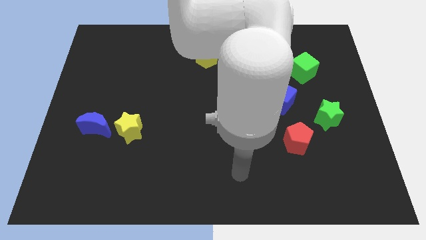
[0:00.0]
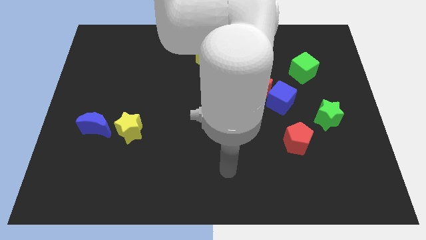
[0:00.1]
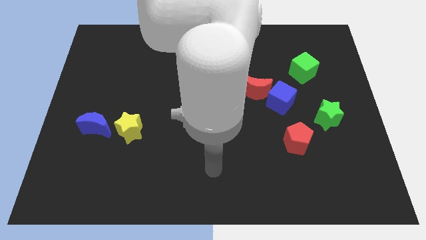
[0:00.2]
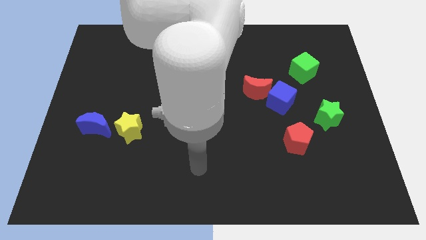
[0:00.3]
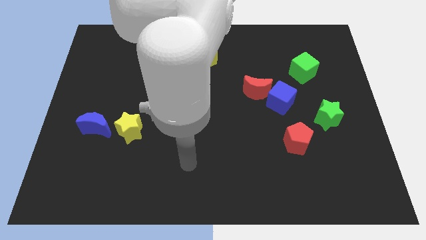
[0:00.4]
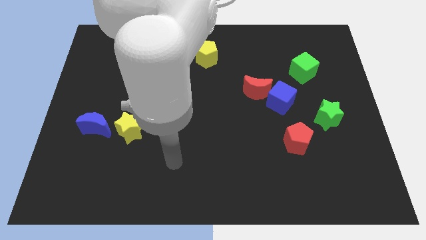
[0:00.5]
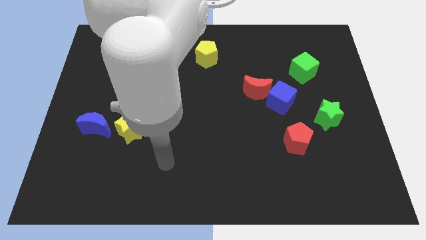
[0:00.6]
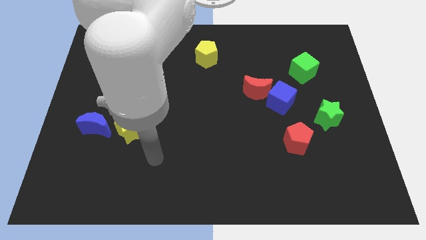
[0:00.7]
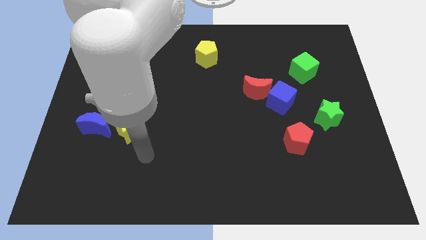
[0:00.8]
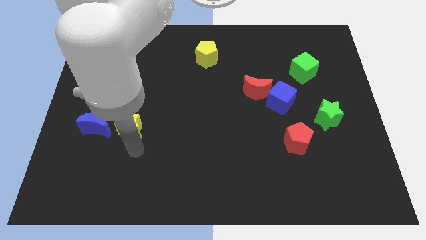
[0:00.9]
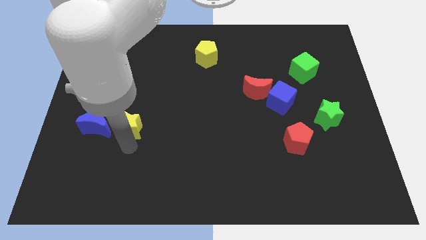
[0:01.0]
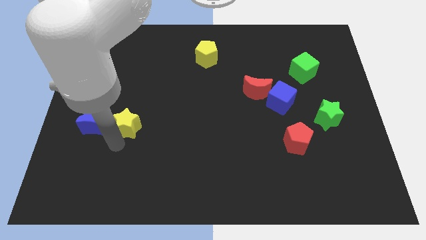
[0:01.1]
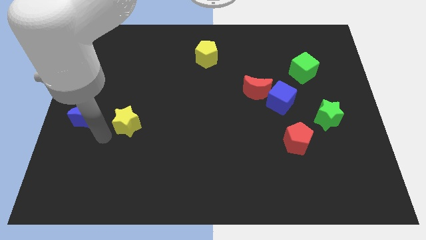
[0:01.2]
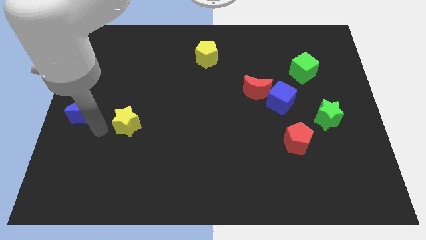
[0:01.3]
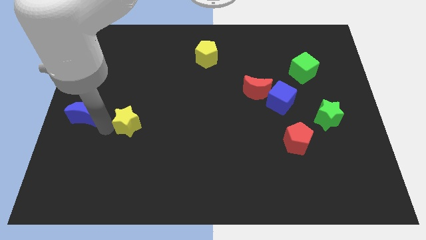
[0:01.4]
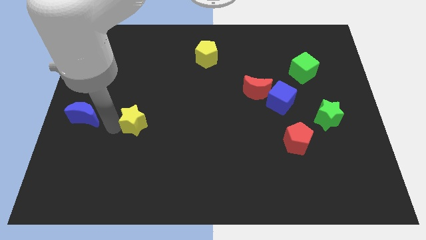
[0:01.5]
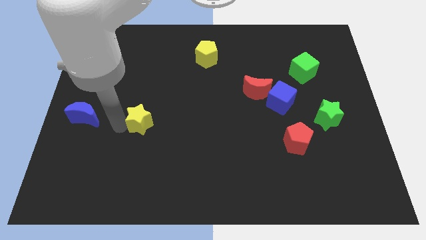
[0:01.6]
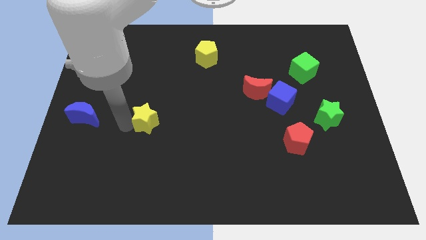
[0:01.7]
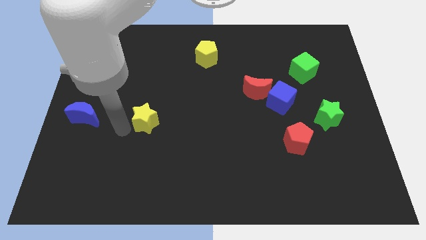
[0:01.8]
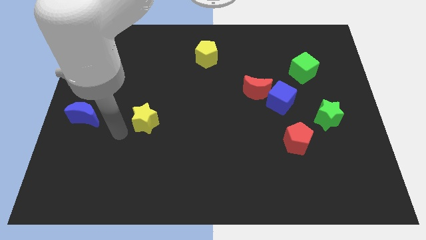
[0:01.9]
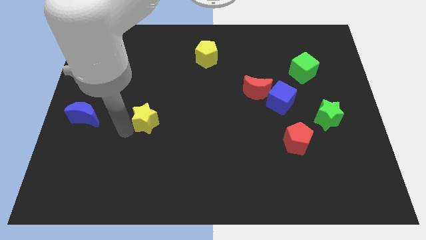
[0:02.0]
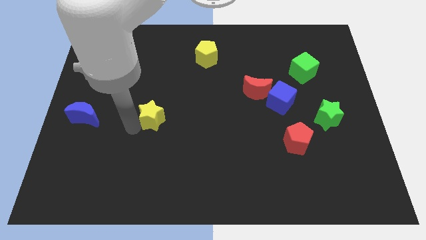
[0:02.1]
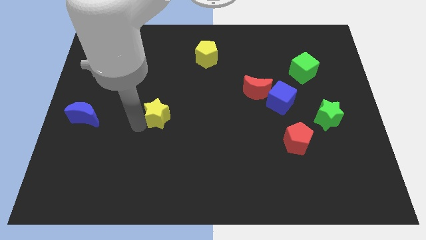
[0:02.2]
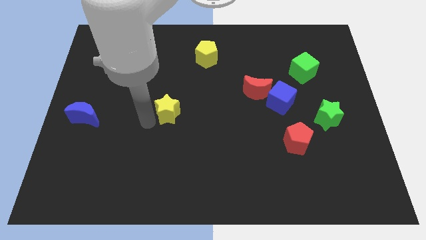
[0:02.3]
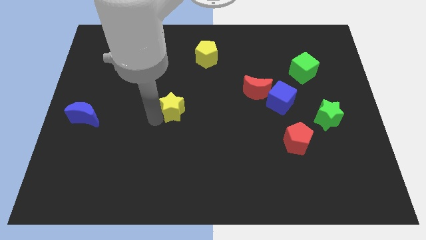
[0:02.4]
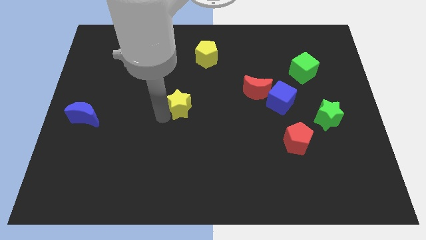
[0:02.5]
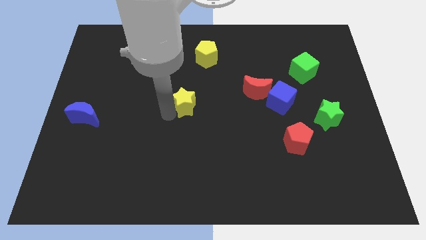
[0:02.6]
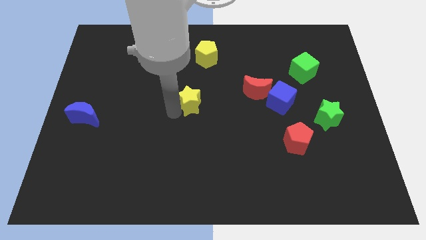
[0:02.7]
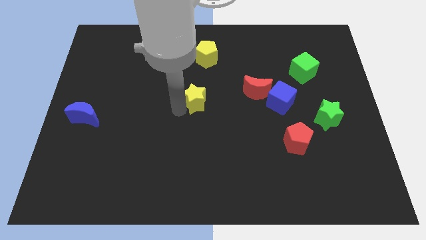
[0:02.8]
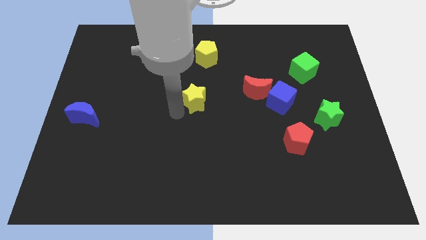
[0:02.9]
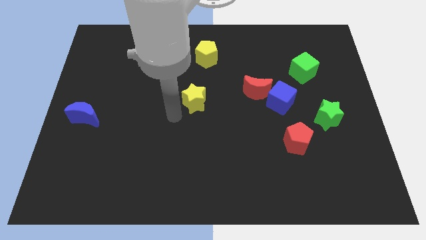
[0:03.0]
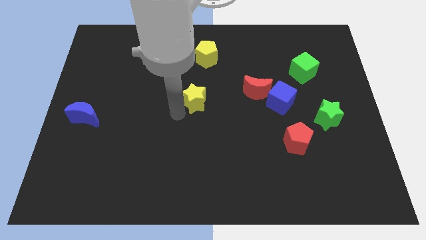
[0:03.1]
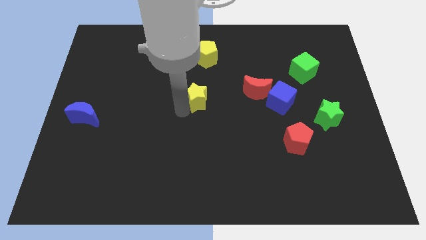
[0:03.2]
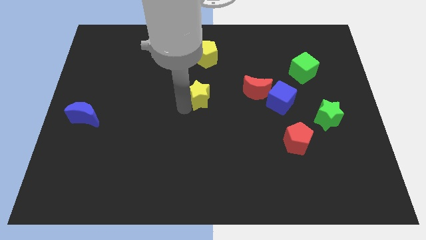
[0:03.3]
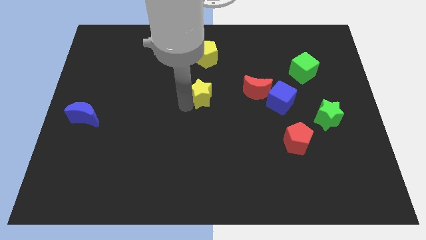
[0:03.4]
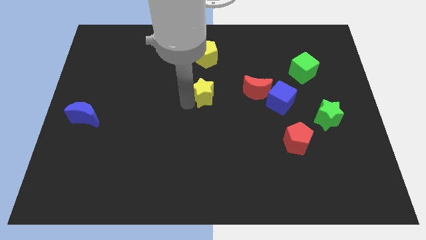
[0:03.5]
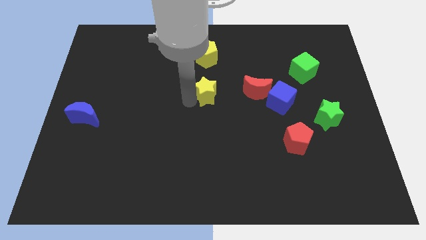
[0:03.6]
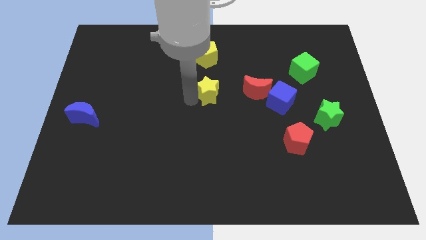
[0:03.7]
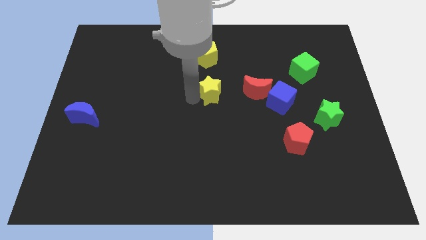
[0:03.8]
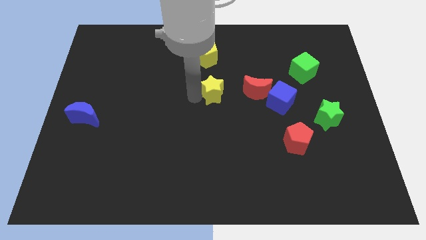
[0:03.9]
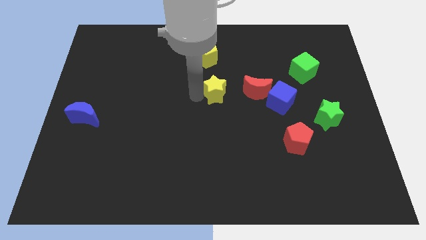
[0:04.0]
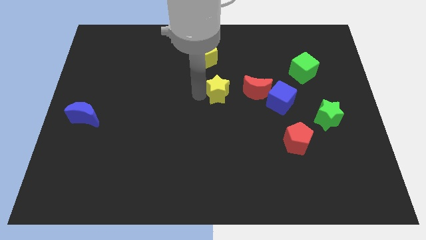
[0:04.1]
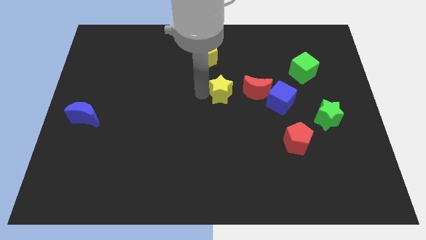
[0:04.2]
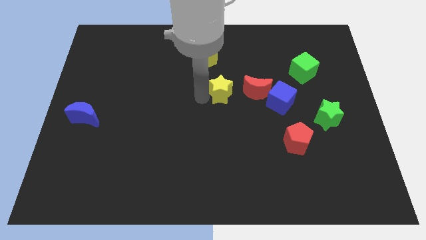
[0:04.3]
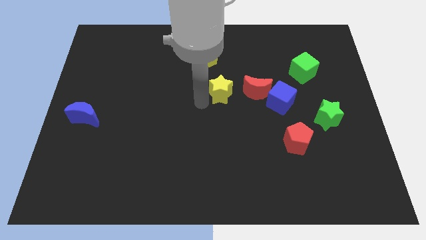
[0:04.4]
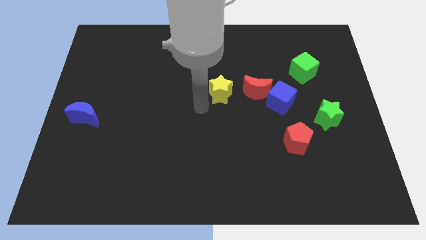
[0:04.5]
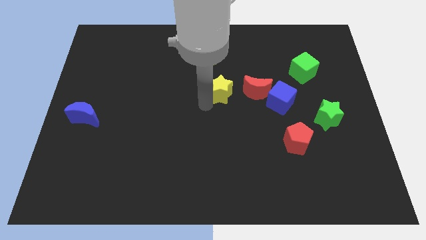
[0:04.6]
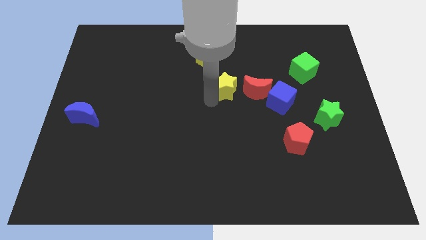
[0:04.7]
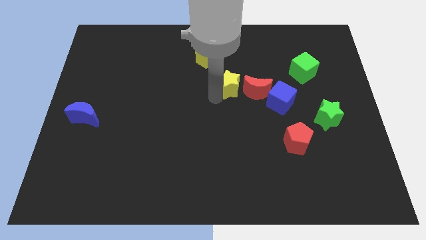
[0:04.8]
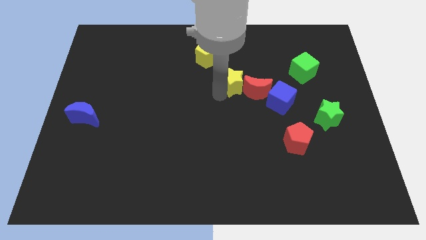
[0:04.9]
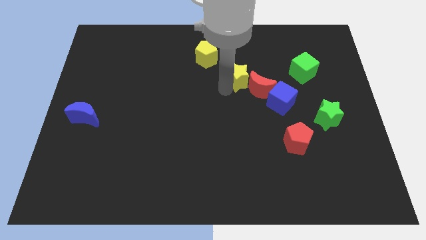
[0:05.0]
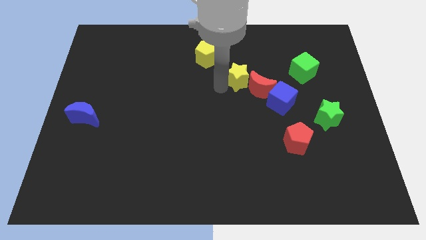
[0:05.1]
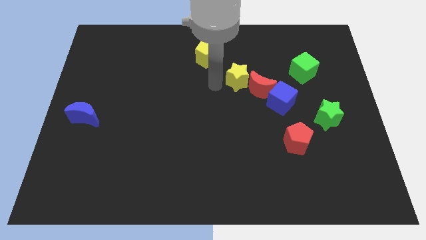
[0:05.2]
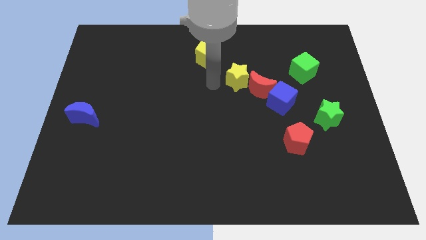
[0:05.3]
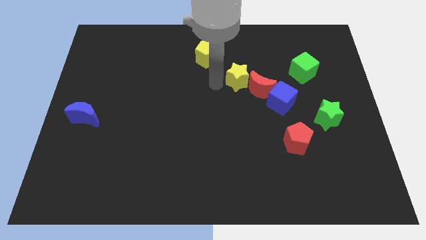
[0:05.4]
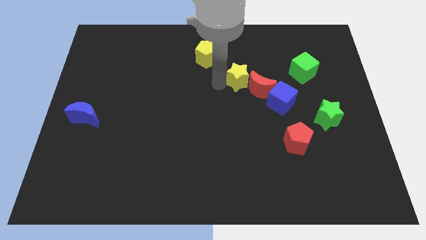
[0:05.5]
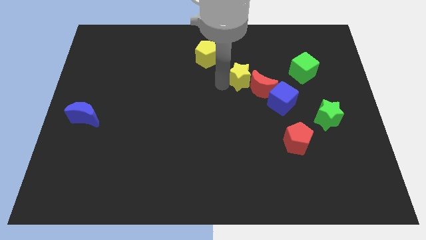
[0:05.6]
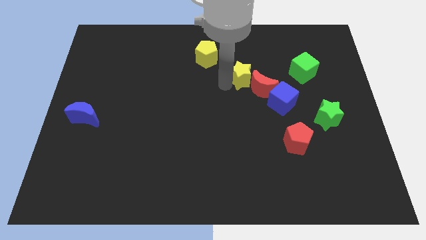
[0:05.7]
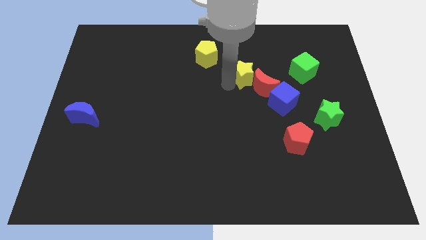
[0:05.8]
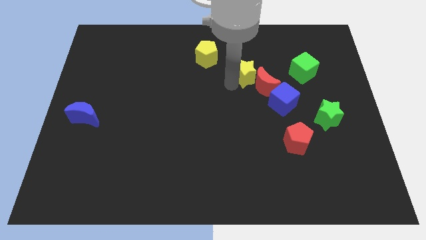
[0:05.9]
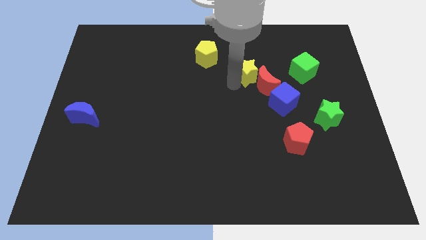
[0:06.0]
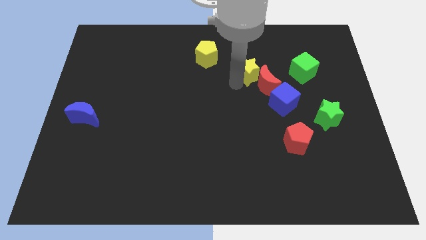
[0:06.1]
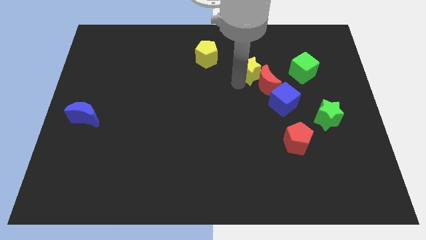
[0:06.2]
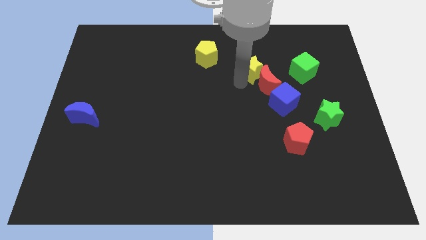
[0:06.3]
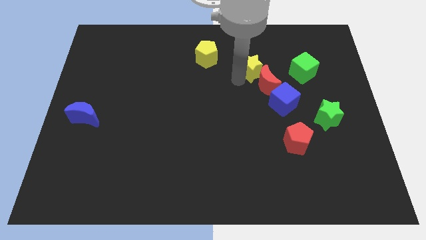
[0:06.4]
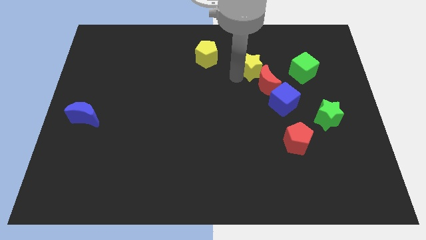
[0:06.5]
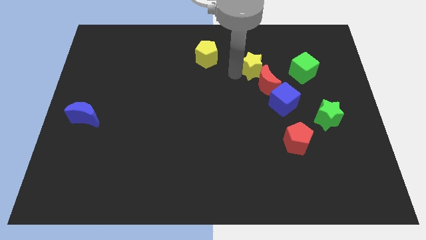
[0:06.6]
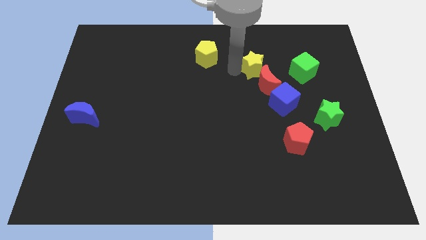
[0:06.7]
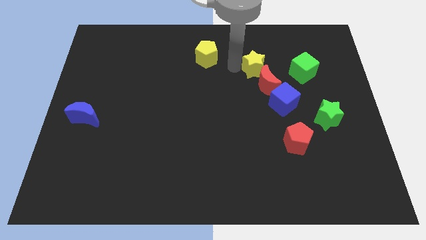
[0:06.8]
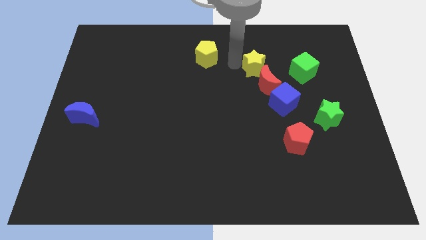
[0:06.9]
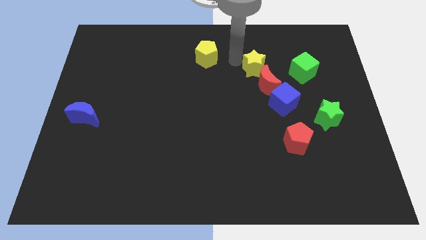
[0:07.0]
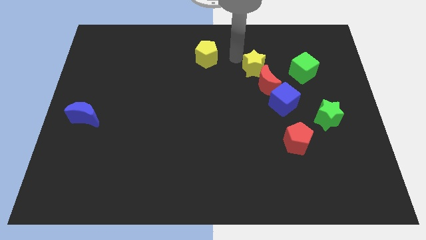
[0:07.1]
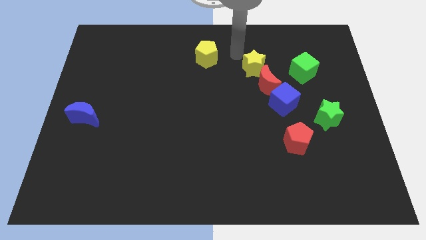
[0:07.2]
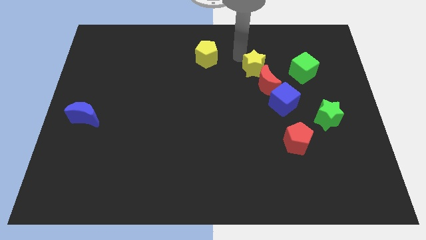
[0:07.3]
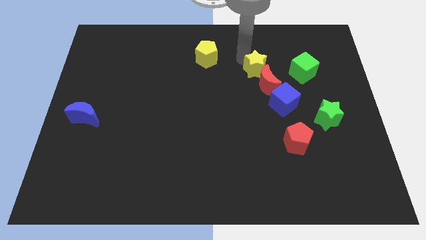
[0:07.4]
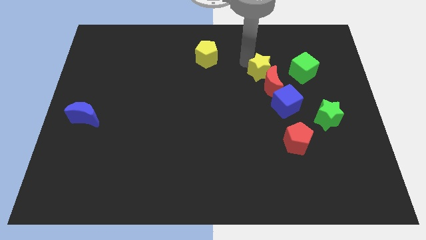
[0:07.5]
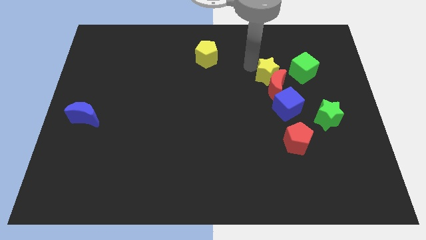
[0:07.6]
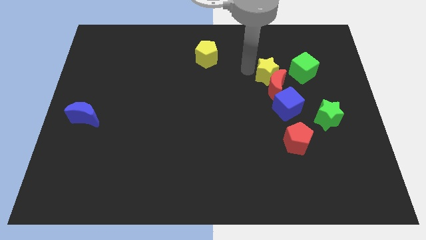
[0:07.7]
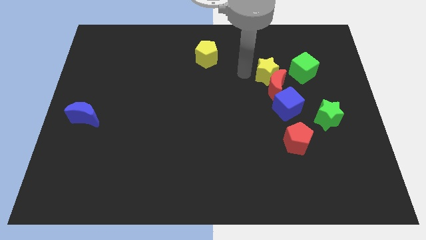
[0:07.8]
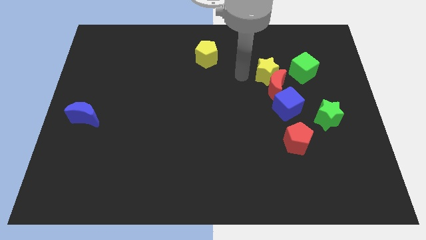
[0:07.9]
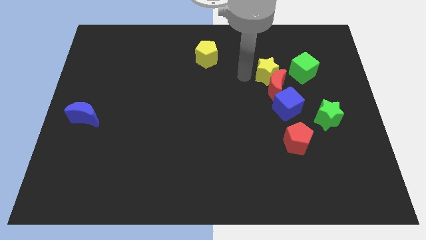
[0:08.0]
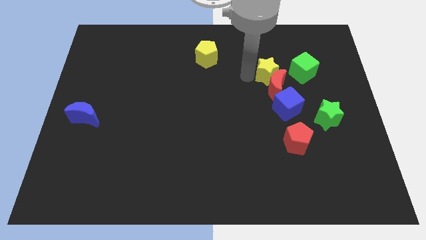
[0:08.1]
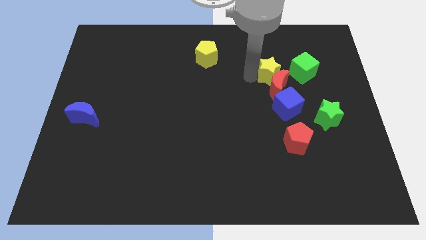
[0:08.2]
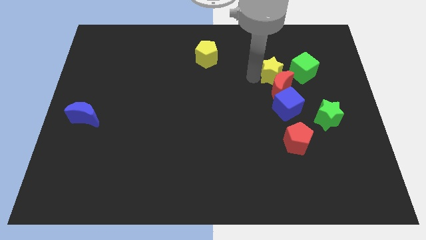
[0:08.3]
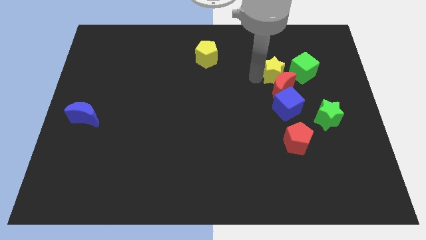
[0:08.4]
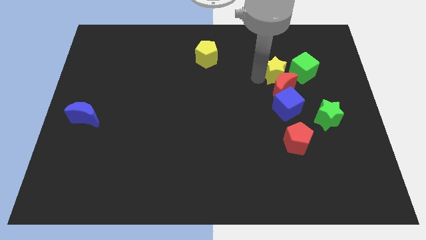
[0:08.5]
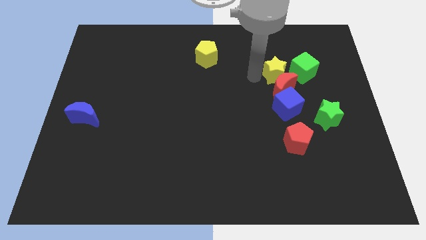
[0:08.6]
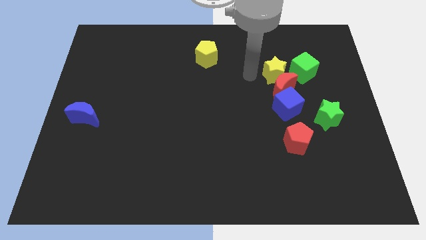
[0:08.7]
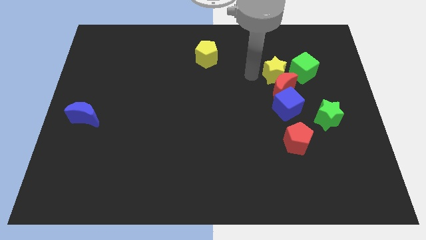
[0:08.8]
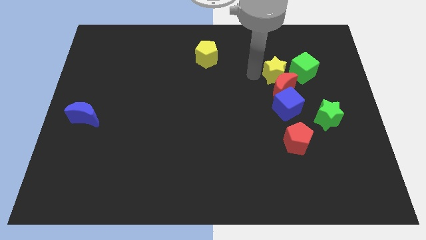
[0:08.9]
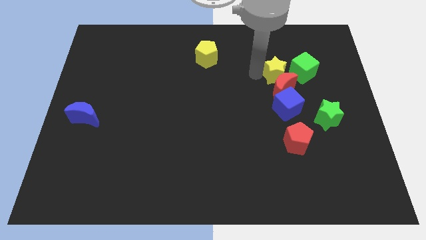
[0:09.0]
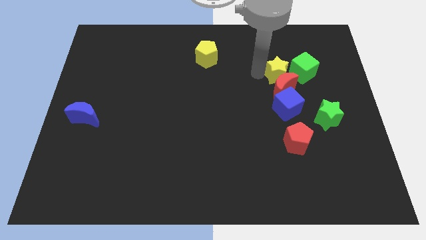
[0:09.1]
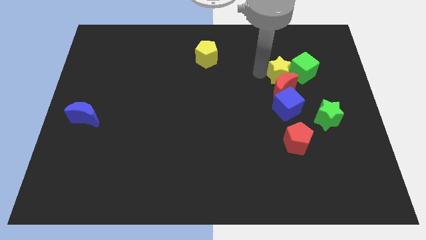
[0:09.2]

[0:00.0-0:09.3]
move the yellow star close to the green cube
